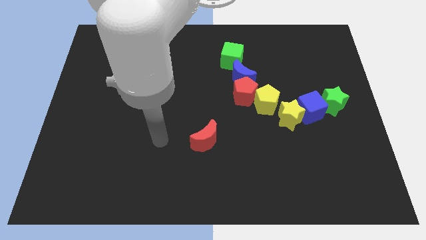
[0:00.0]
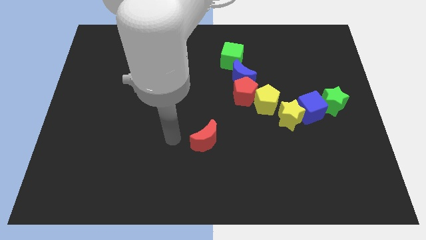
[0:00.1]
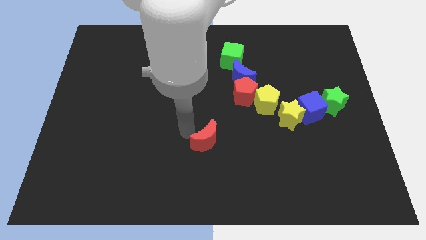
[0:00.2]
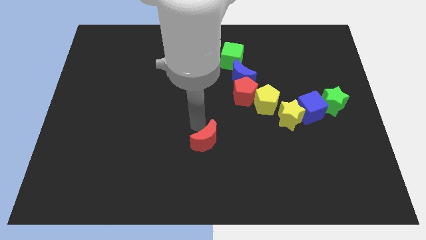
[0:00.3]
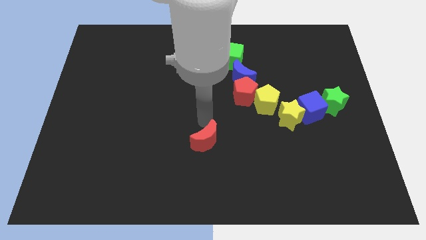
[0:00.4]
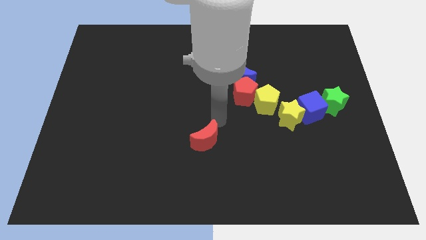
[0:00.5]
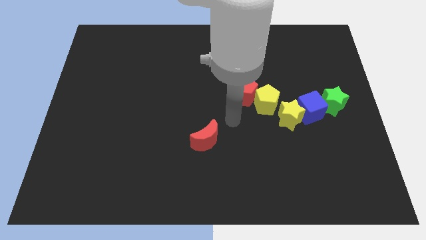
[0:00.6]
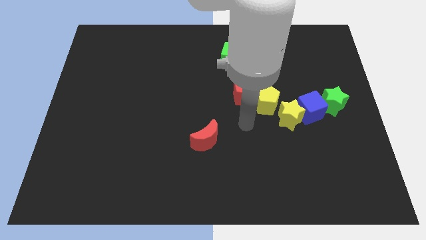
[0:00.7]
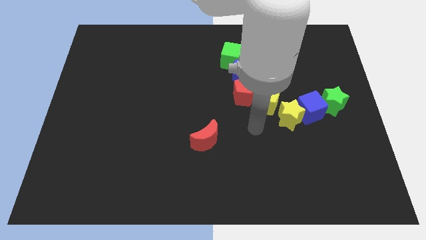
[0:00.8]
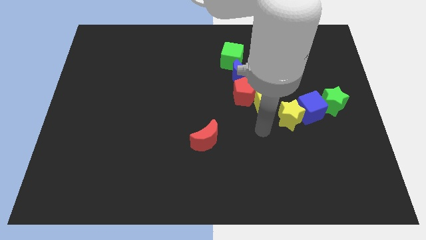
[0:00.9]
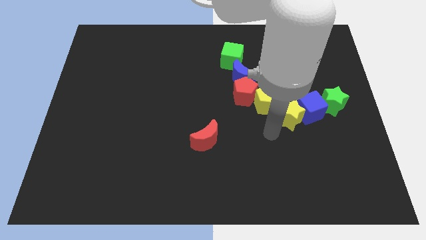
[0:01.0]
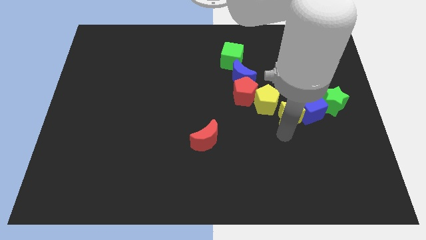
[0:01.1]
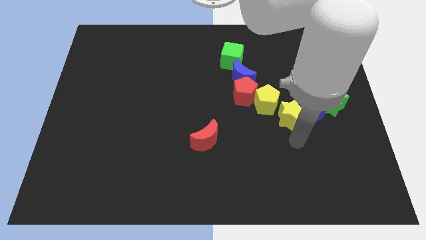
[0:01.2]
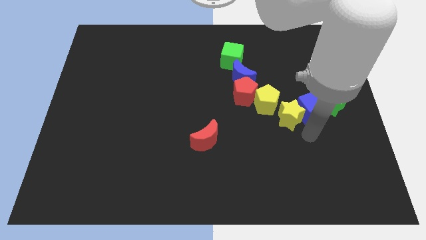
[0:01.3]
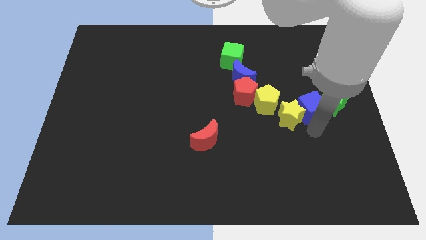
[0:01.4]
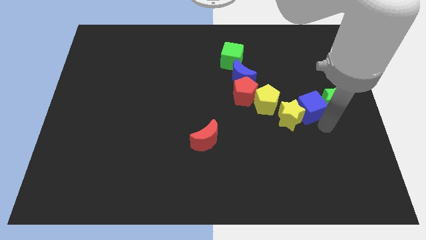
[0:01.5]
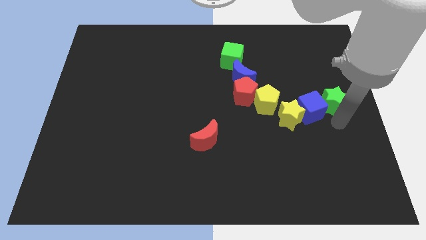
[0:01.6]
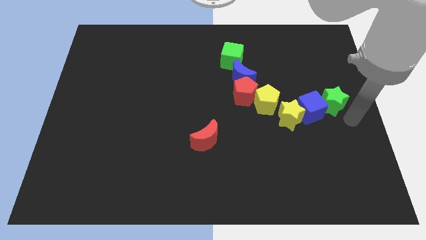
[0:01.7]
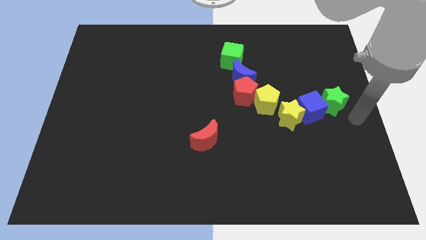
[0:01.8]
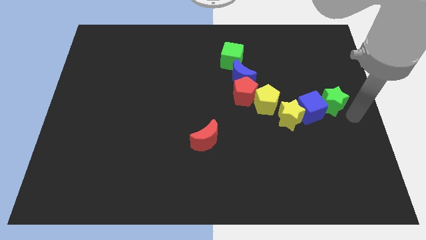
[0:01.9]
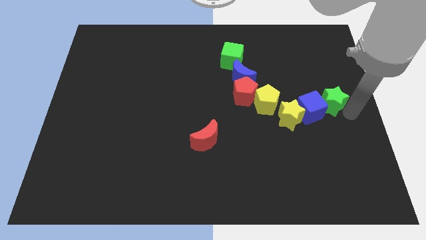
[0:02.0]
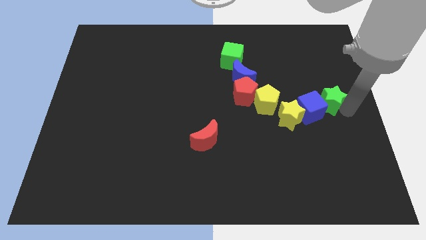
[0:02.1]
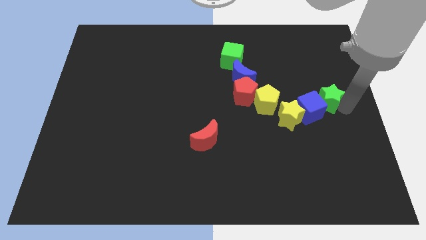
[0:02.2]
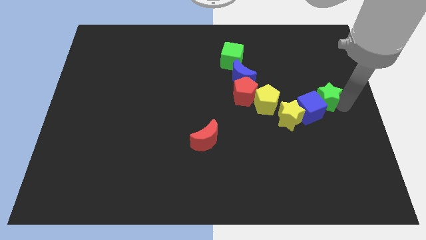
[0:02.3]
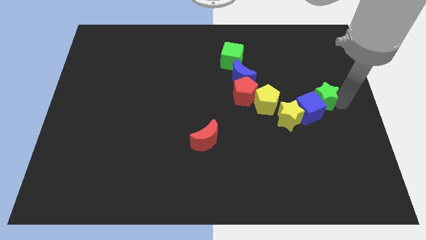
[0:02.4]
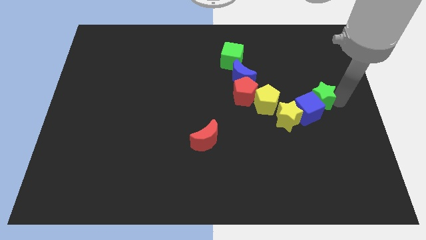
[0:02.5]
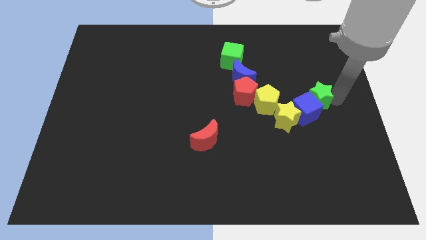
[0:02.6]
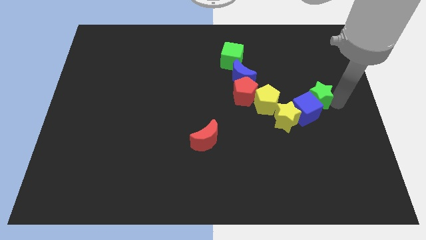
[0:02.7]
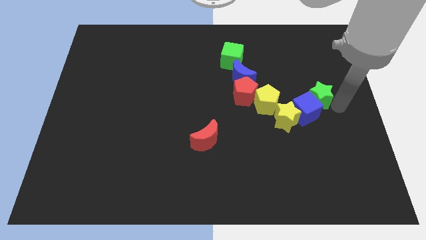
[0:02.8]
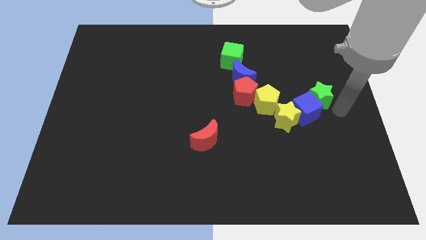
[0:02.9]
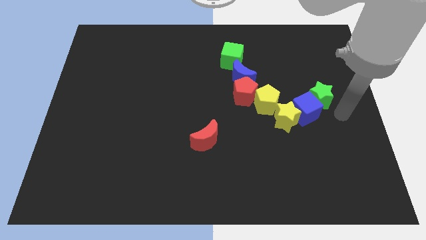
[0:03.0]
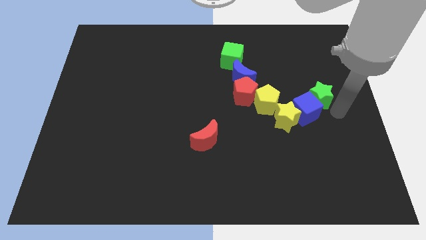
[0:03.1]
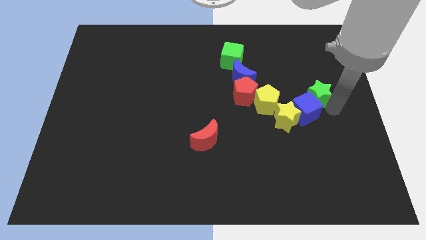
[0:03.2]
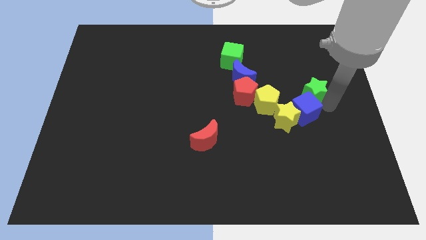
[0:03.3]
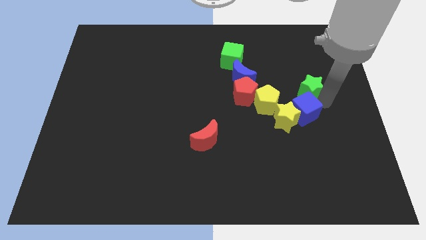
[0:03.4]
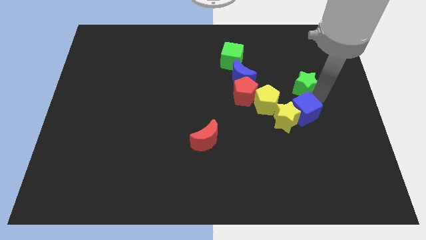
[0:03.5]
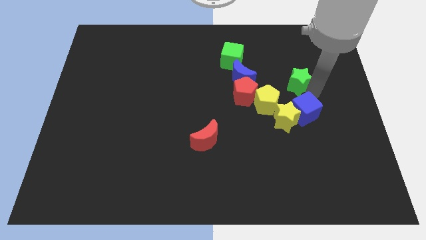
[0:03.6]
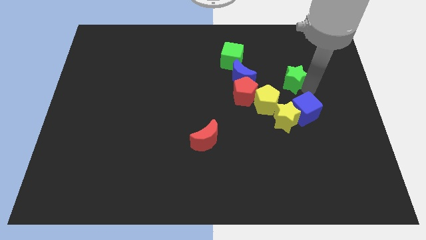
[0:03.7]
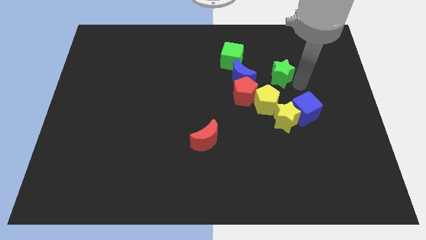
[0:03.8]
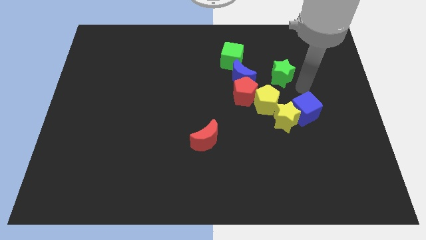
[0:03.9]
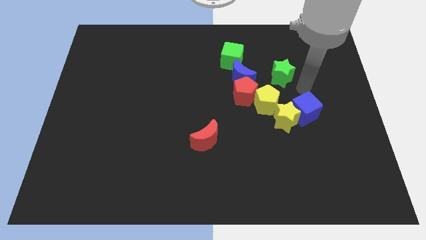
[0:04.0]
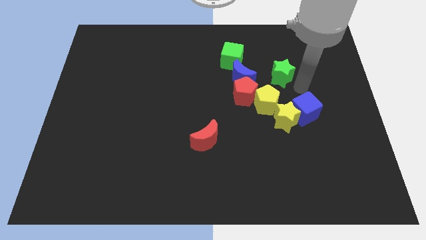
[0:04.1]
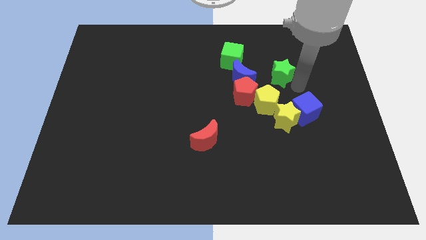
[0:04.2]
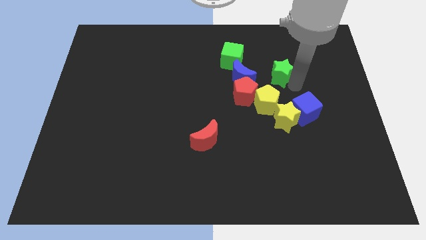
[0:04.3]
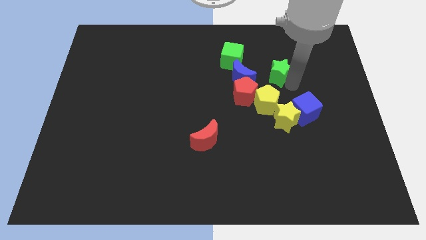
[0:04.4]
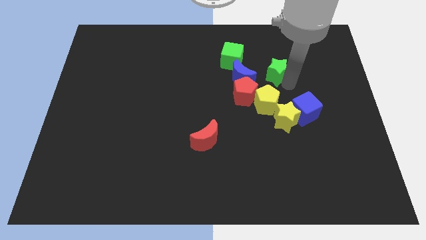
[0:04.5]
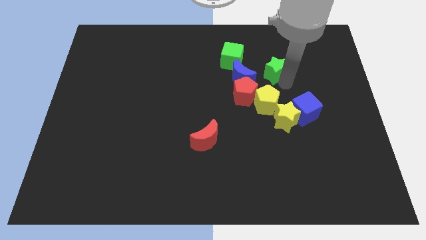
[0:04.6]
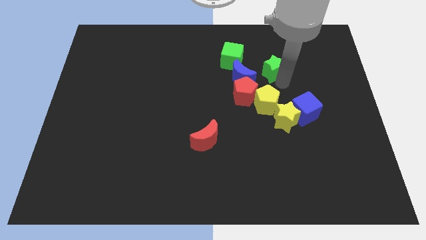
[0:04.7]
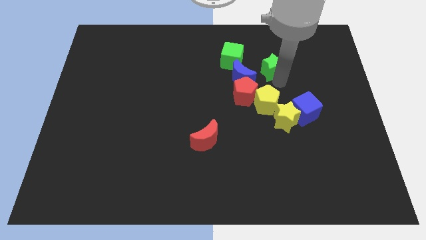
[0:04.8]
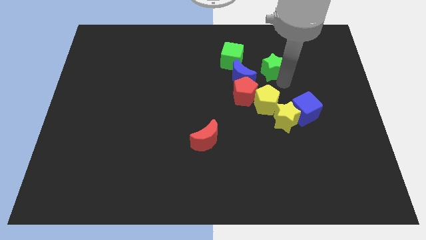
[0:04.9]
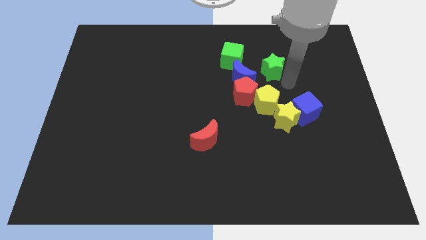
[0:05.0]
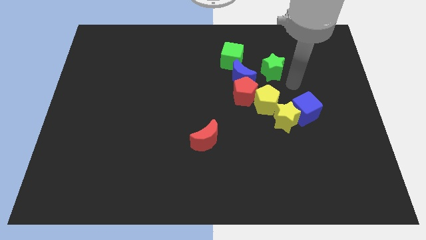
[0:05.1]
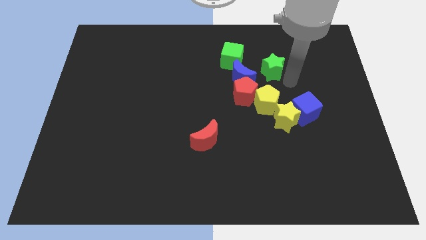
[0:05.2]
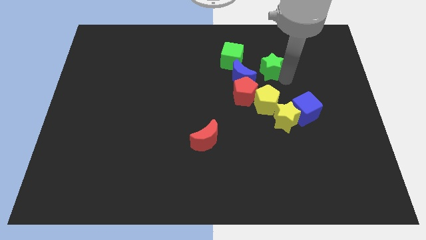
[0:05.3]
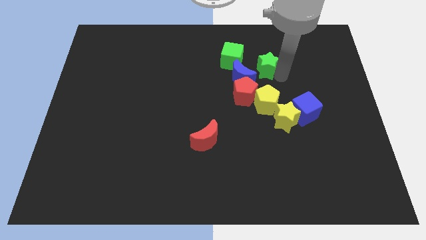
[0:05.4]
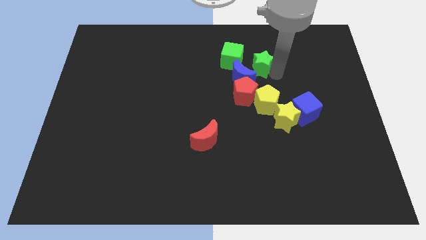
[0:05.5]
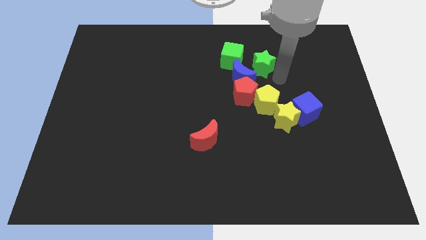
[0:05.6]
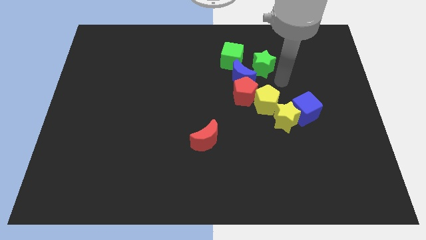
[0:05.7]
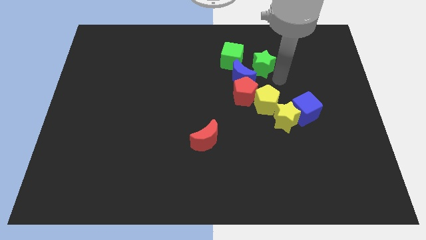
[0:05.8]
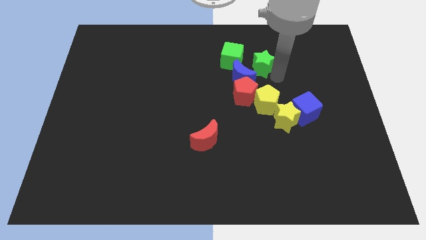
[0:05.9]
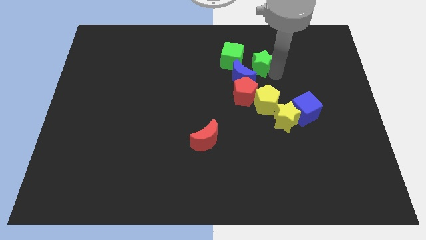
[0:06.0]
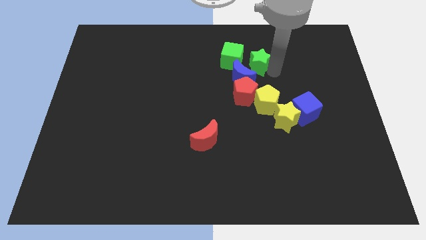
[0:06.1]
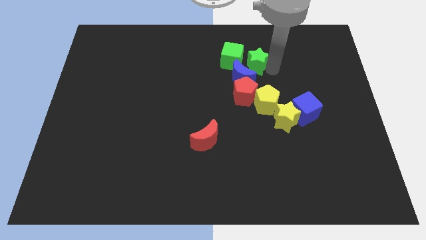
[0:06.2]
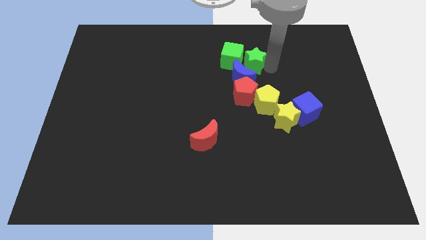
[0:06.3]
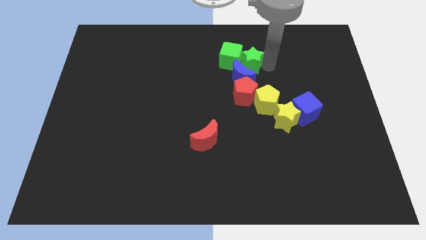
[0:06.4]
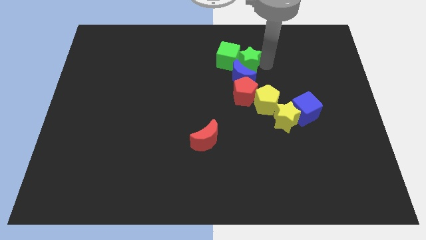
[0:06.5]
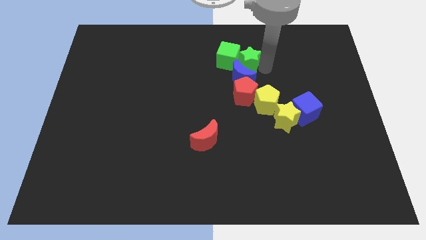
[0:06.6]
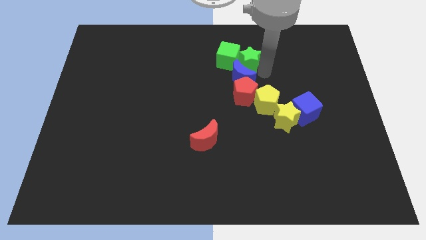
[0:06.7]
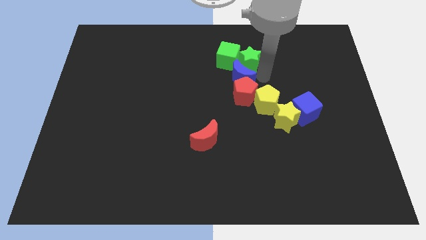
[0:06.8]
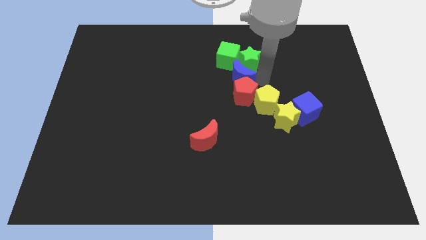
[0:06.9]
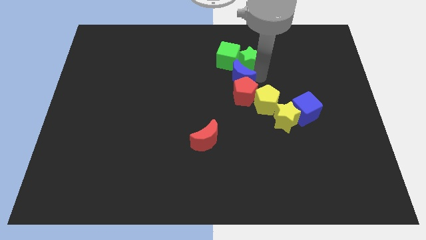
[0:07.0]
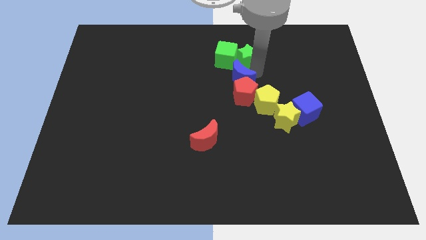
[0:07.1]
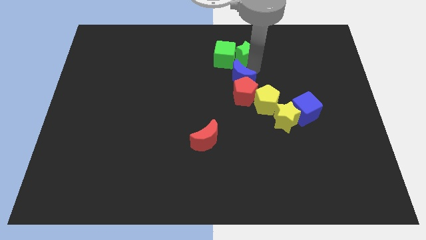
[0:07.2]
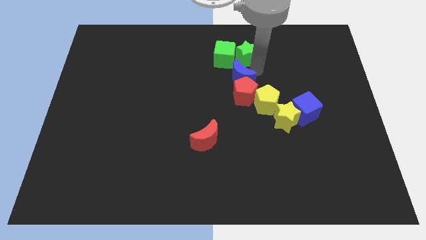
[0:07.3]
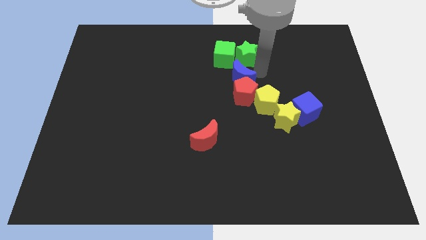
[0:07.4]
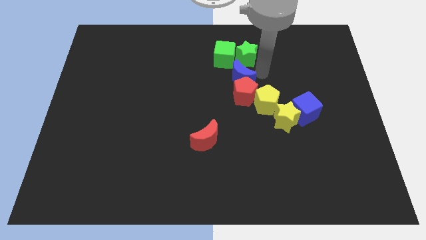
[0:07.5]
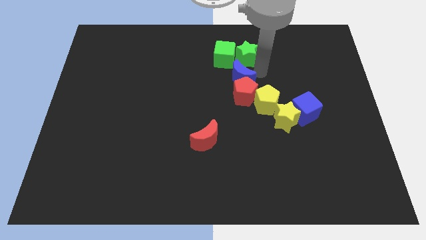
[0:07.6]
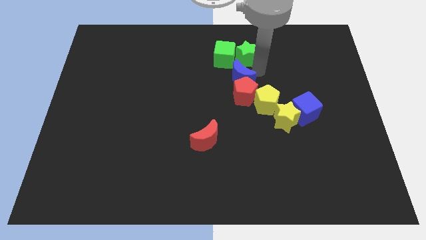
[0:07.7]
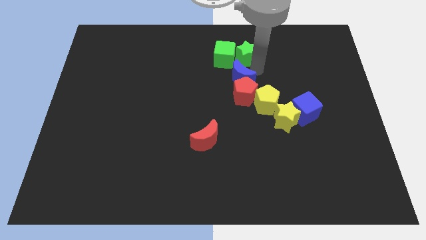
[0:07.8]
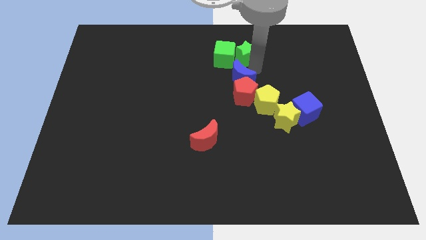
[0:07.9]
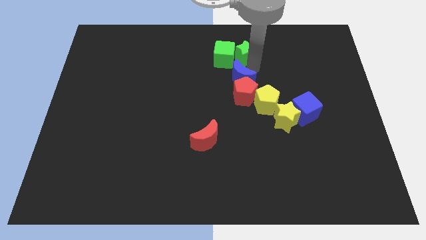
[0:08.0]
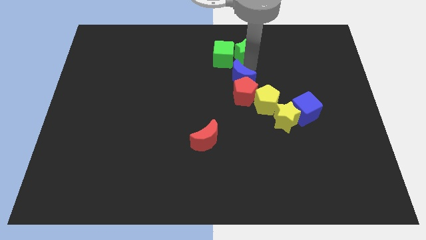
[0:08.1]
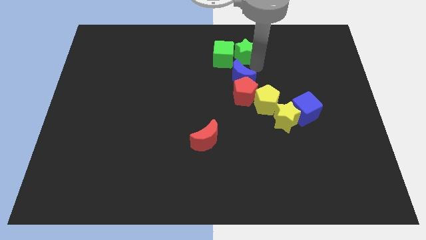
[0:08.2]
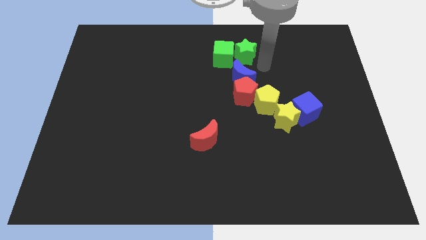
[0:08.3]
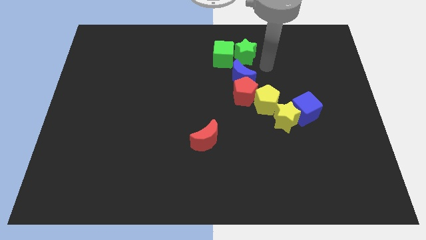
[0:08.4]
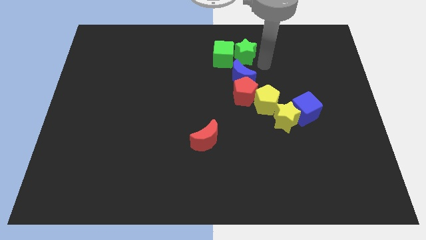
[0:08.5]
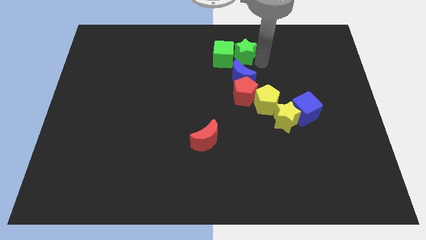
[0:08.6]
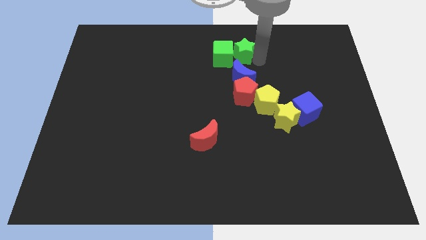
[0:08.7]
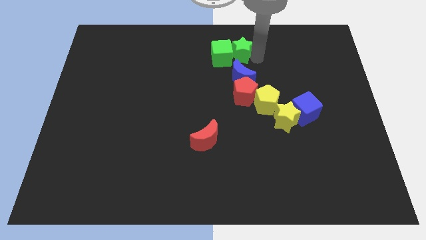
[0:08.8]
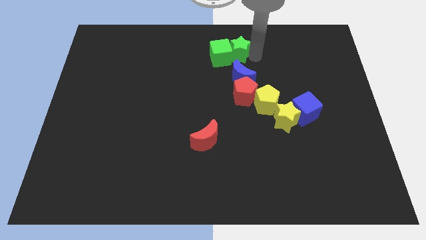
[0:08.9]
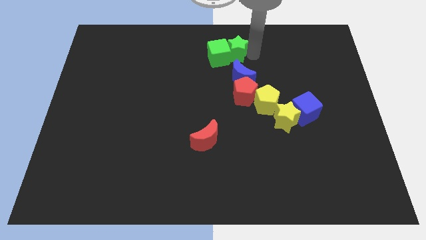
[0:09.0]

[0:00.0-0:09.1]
put the green star to the top side
